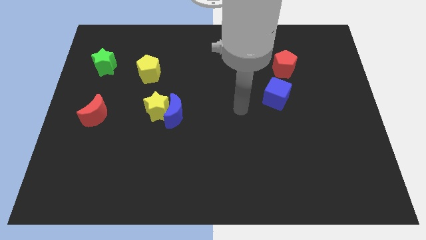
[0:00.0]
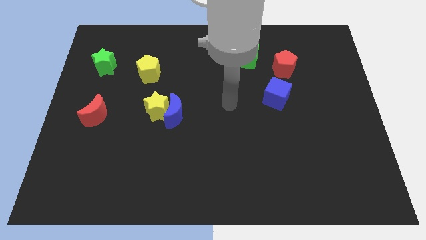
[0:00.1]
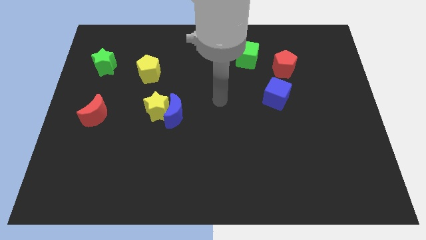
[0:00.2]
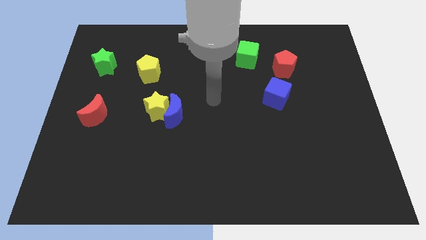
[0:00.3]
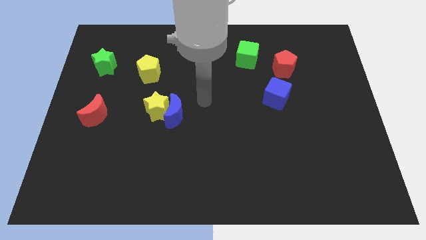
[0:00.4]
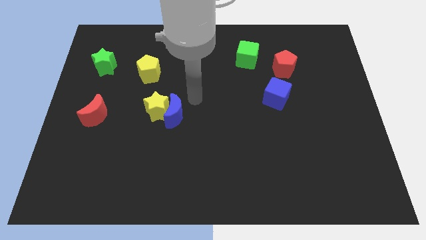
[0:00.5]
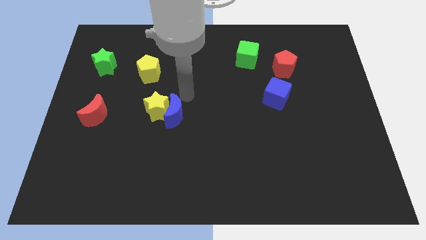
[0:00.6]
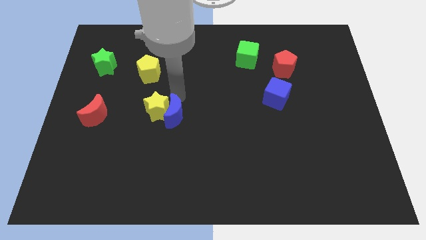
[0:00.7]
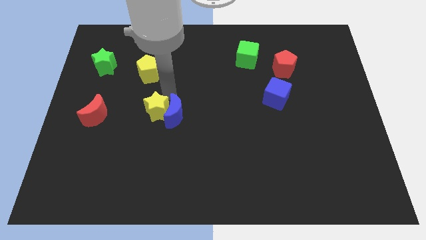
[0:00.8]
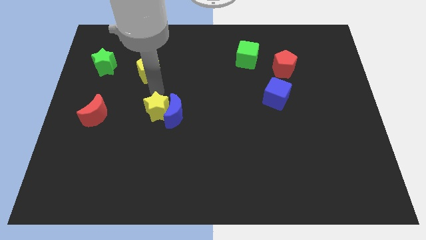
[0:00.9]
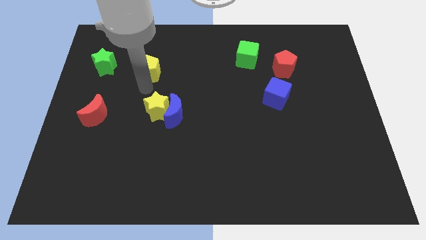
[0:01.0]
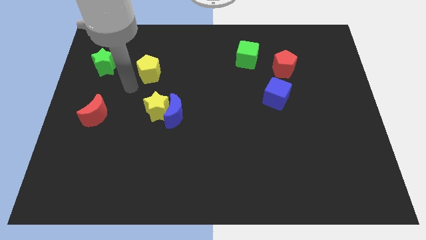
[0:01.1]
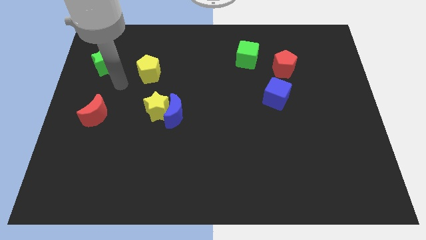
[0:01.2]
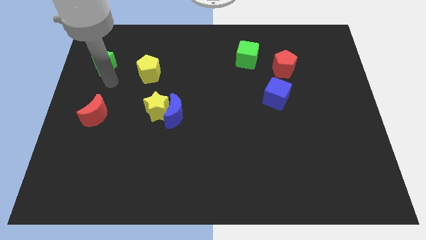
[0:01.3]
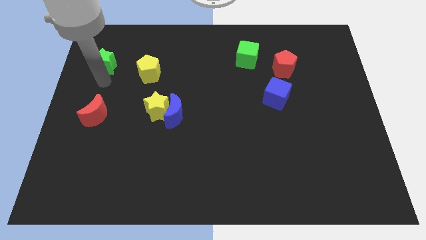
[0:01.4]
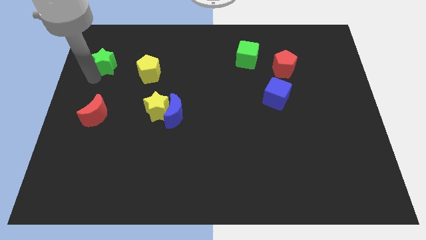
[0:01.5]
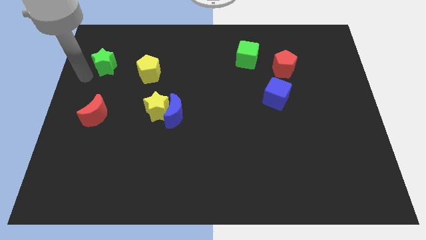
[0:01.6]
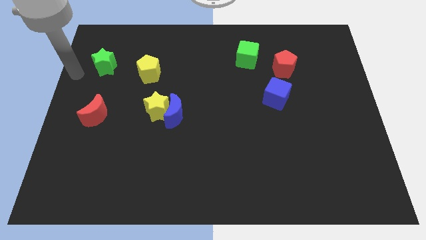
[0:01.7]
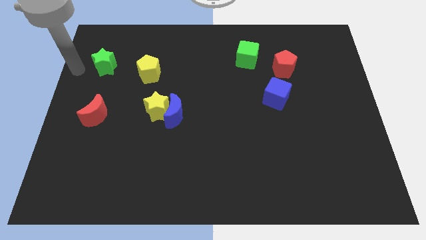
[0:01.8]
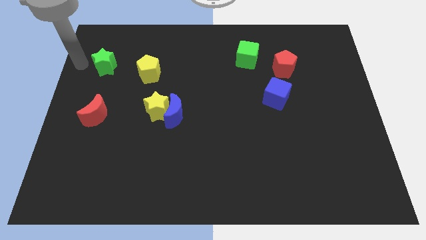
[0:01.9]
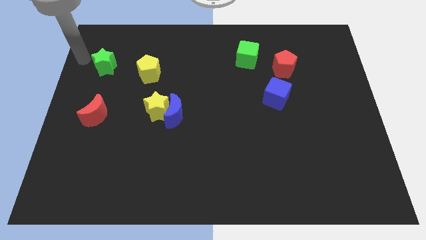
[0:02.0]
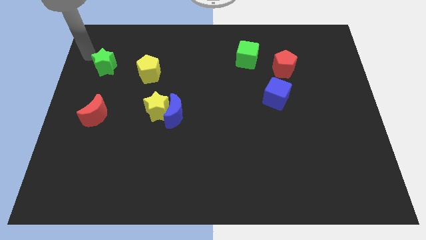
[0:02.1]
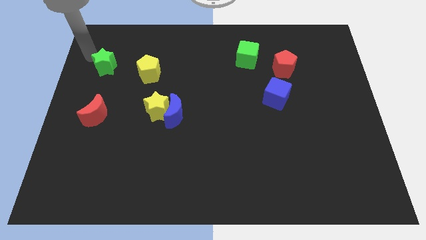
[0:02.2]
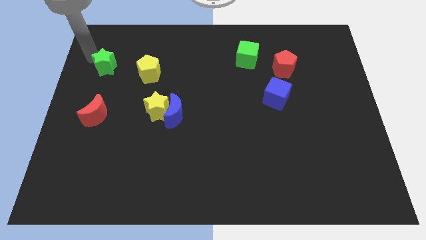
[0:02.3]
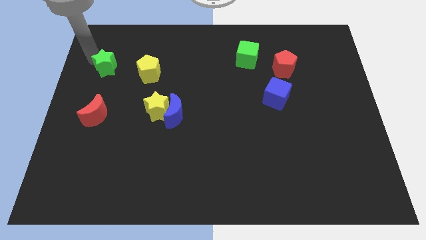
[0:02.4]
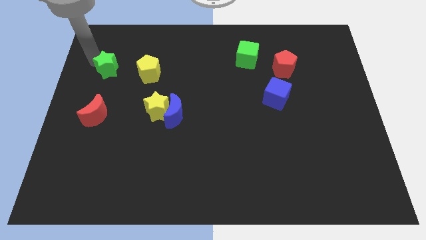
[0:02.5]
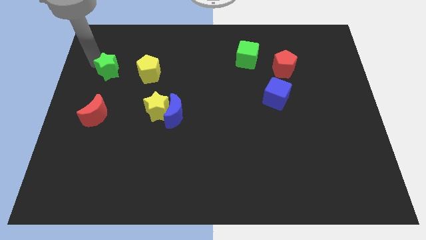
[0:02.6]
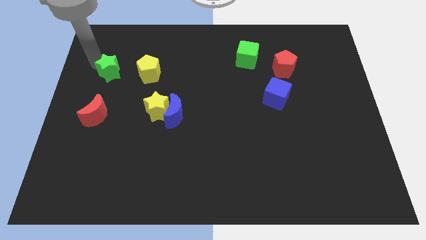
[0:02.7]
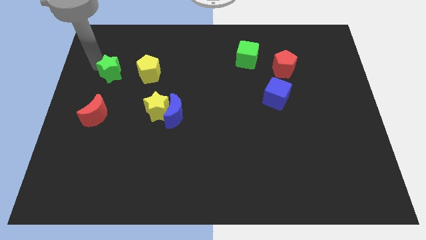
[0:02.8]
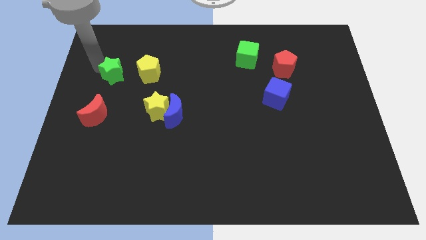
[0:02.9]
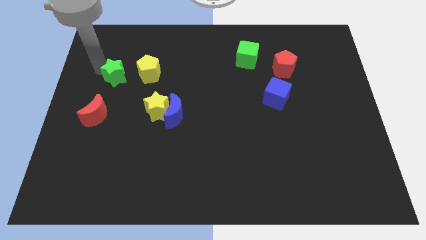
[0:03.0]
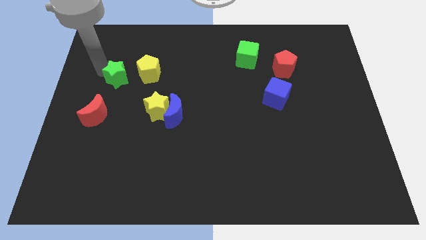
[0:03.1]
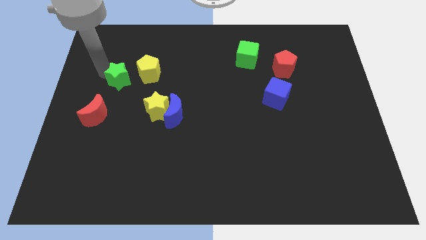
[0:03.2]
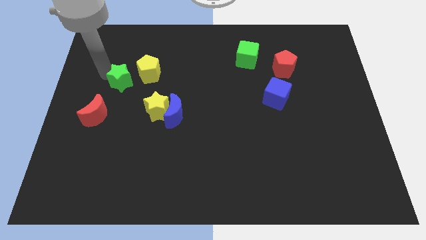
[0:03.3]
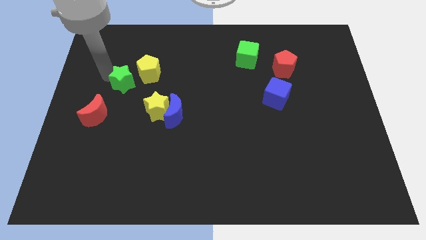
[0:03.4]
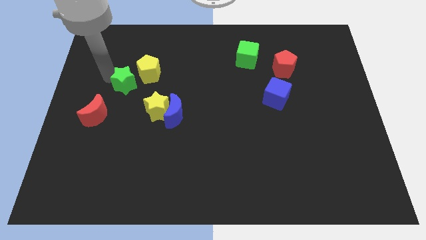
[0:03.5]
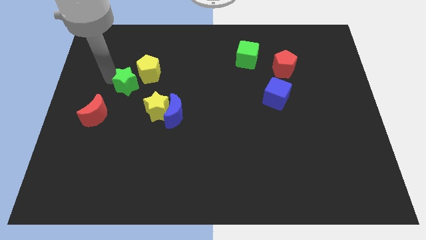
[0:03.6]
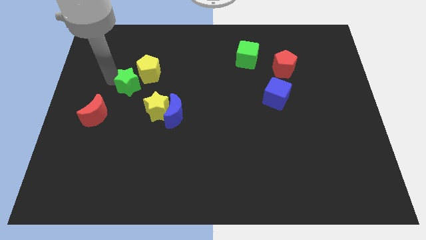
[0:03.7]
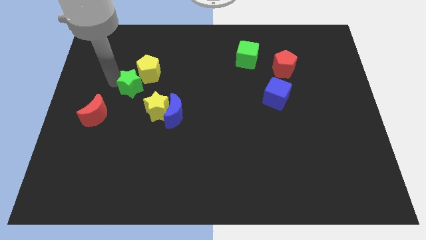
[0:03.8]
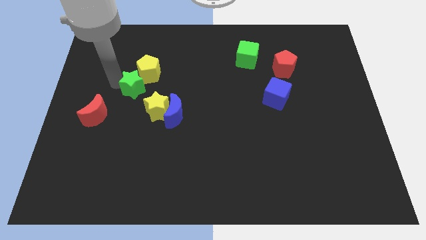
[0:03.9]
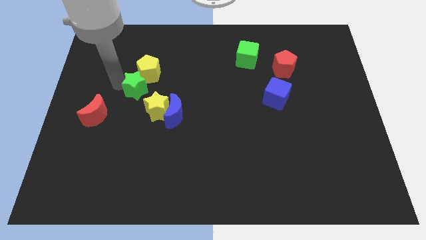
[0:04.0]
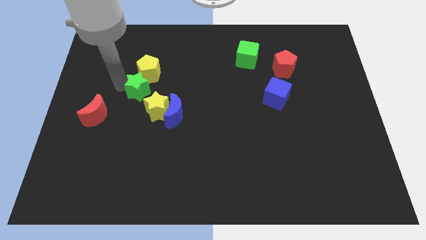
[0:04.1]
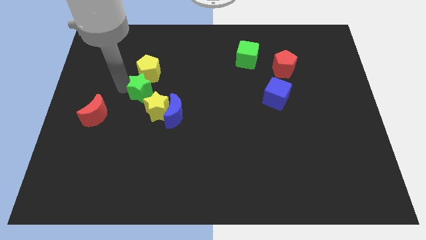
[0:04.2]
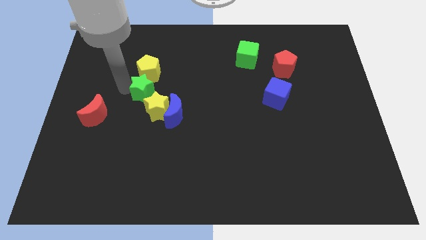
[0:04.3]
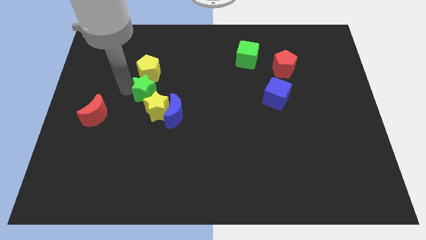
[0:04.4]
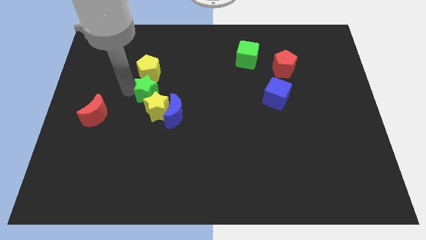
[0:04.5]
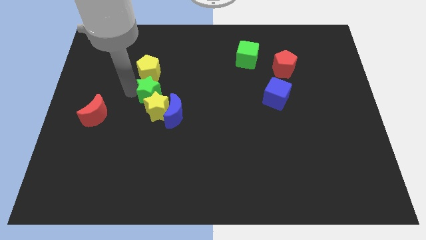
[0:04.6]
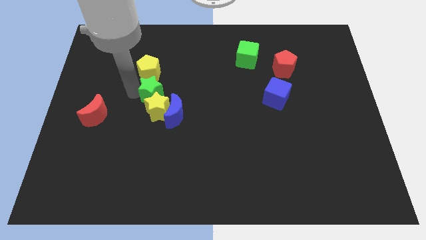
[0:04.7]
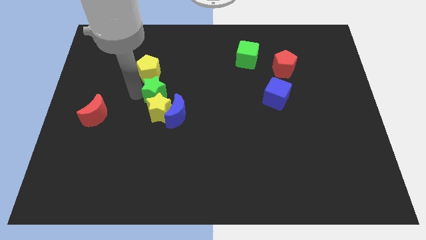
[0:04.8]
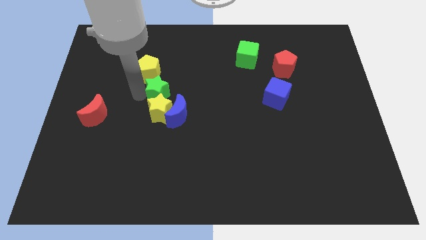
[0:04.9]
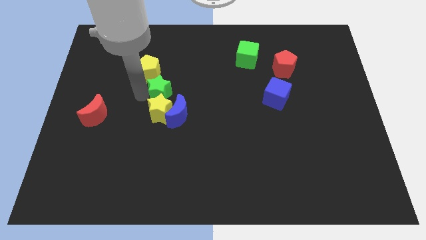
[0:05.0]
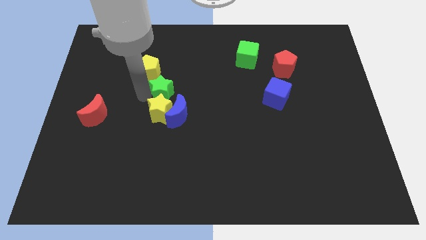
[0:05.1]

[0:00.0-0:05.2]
push the green star to the center of the board
